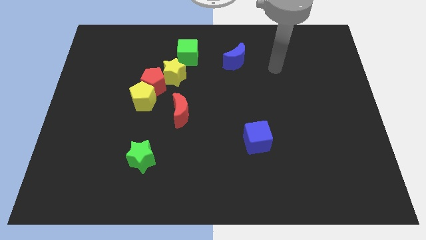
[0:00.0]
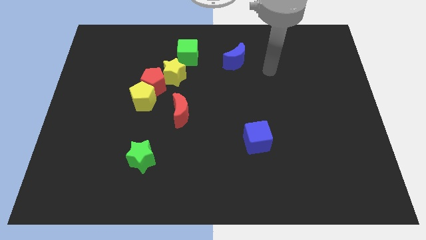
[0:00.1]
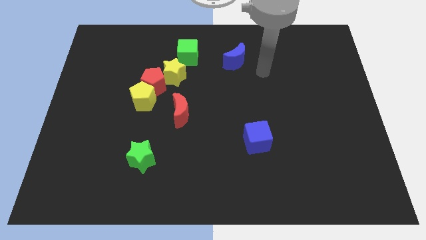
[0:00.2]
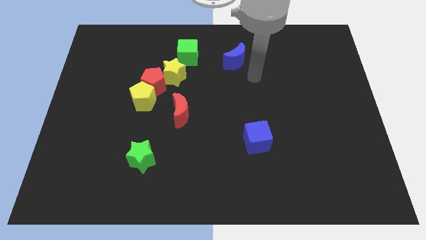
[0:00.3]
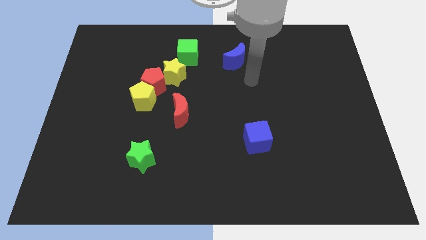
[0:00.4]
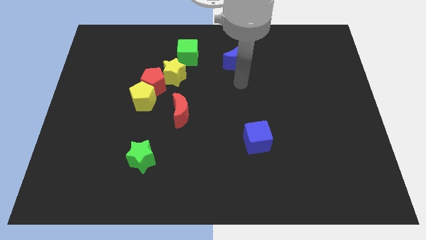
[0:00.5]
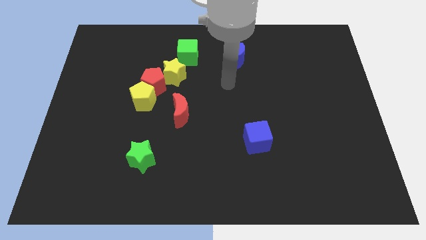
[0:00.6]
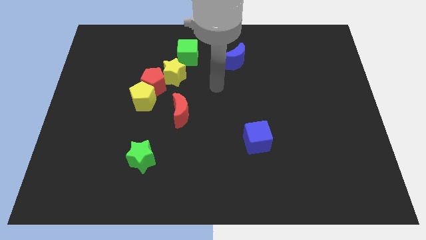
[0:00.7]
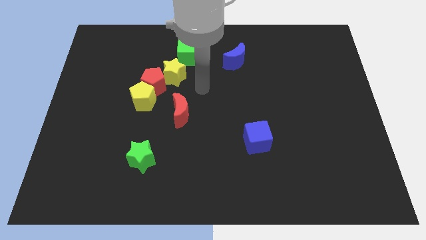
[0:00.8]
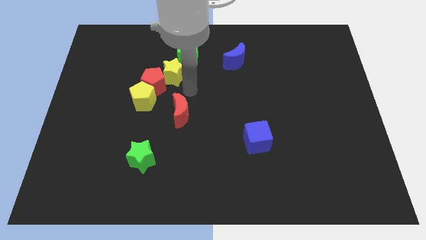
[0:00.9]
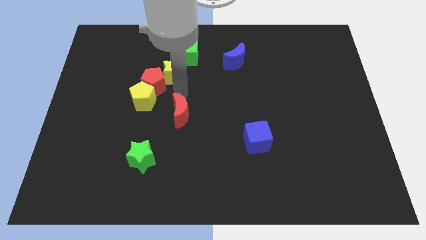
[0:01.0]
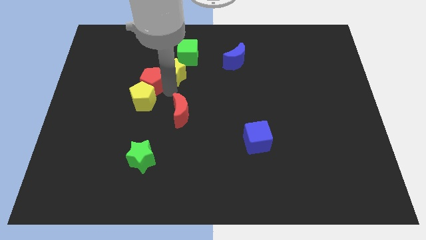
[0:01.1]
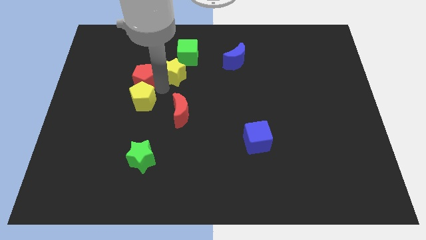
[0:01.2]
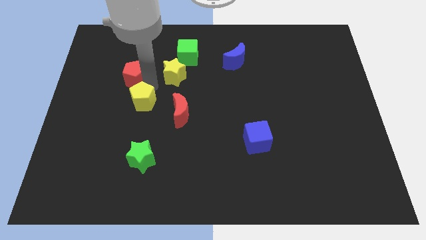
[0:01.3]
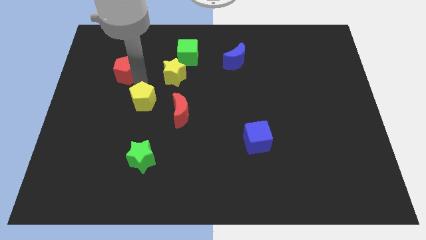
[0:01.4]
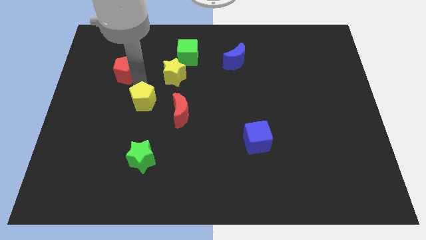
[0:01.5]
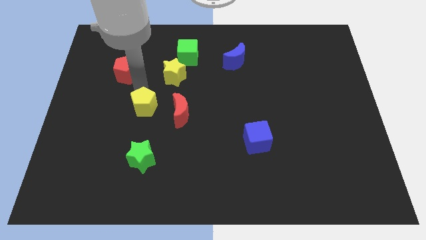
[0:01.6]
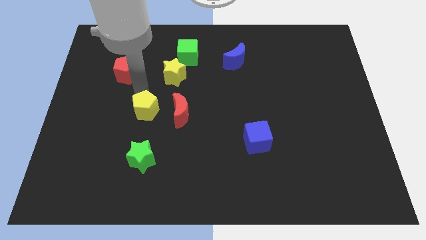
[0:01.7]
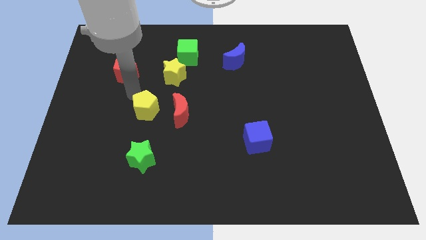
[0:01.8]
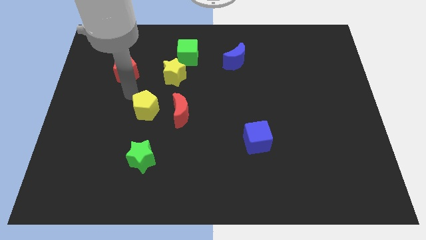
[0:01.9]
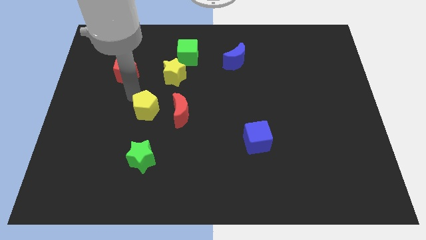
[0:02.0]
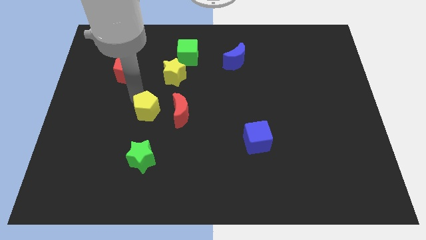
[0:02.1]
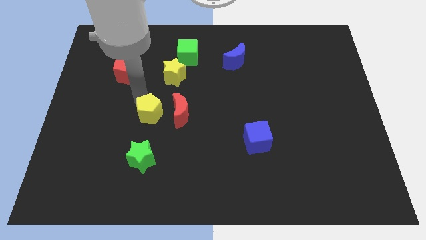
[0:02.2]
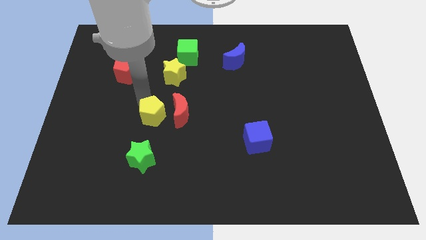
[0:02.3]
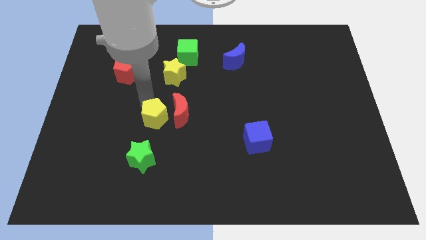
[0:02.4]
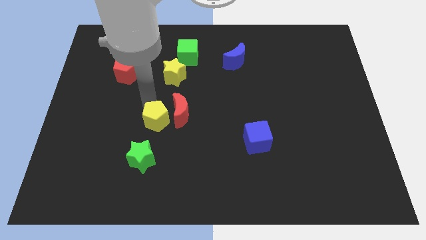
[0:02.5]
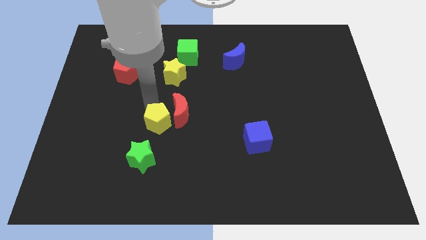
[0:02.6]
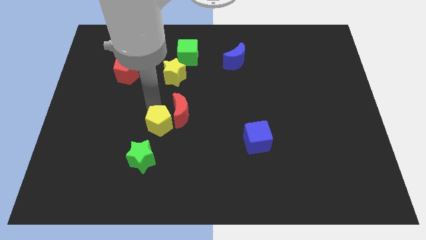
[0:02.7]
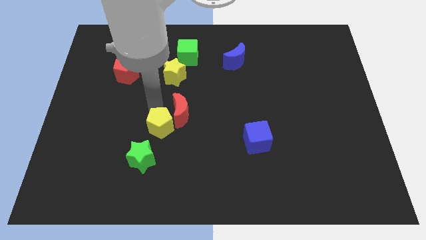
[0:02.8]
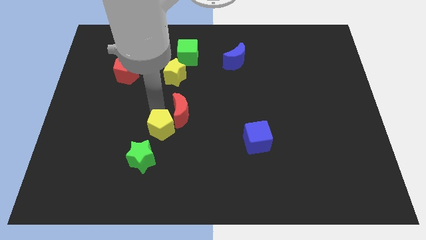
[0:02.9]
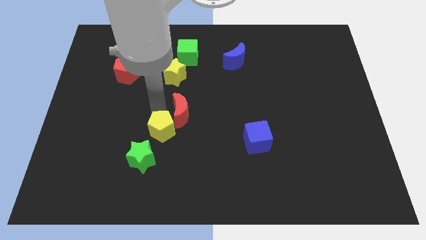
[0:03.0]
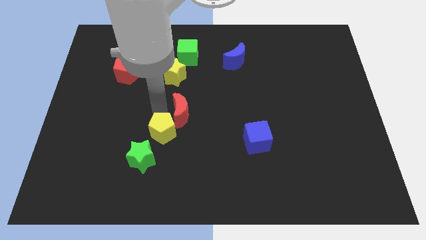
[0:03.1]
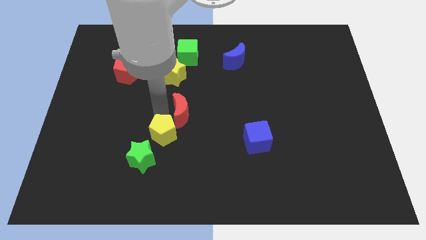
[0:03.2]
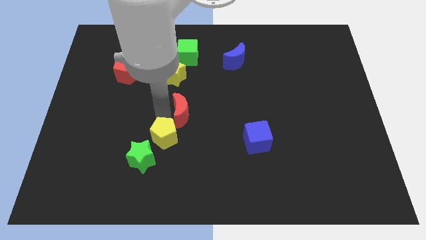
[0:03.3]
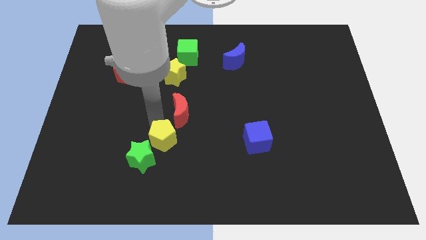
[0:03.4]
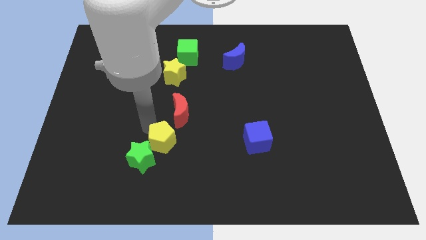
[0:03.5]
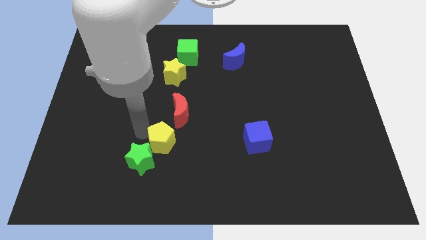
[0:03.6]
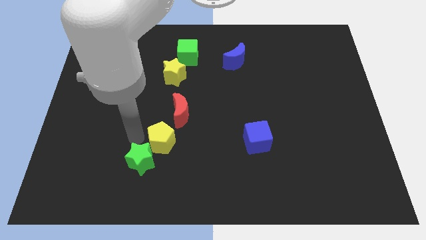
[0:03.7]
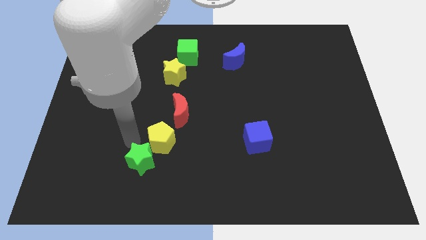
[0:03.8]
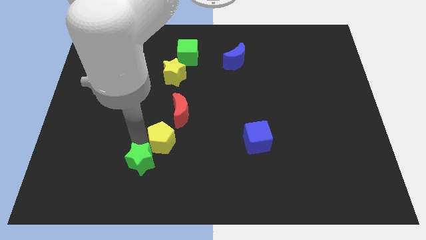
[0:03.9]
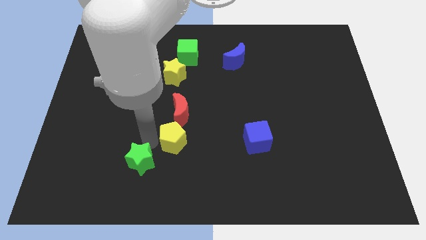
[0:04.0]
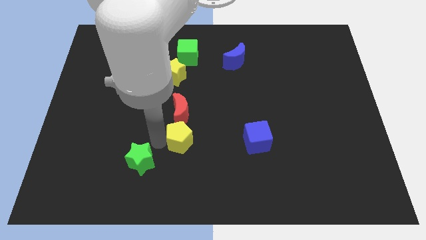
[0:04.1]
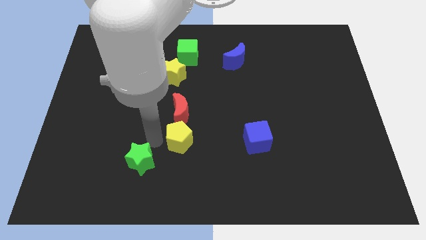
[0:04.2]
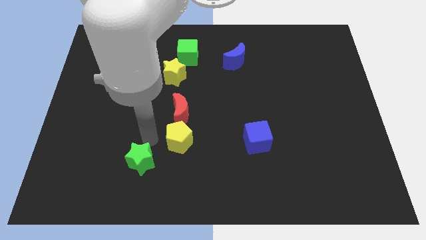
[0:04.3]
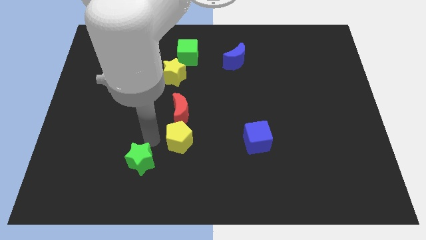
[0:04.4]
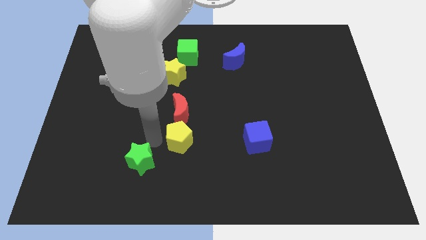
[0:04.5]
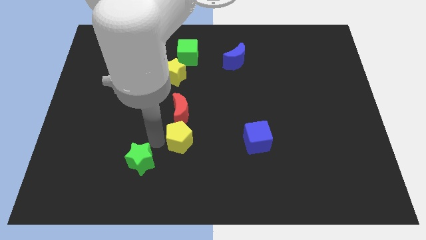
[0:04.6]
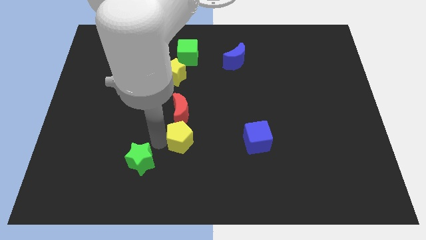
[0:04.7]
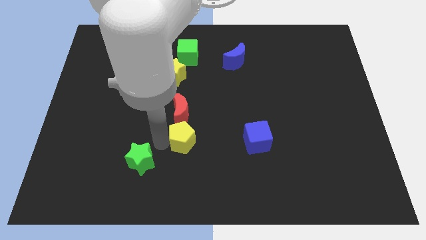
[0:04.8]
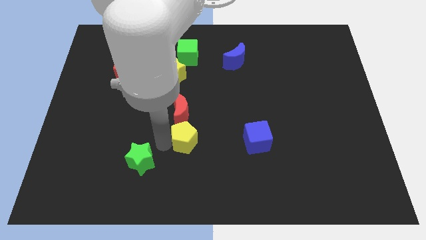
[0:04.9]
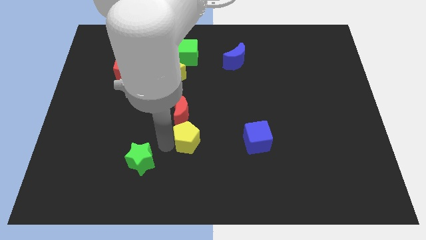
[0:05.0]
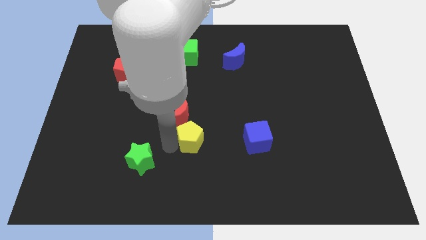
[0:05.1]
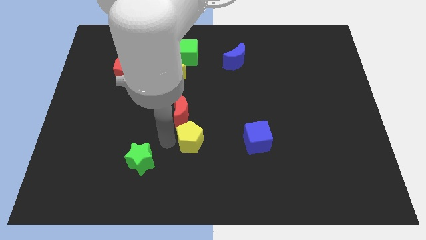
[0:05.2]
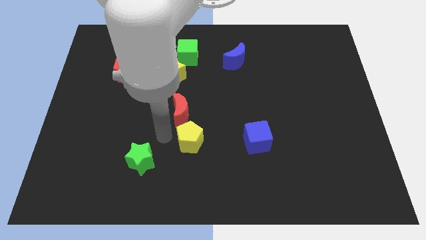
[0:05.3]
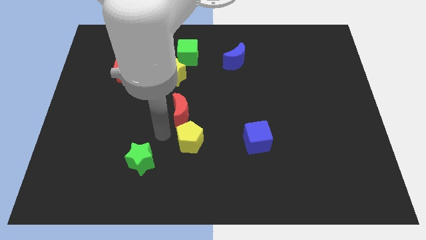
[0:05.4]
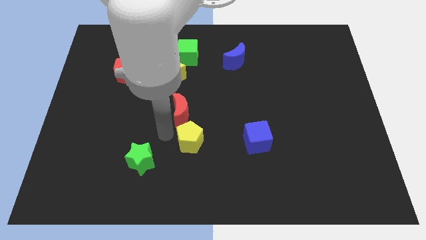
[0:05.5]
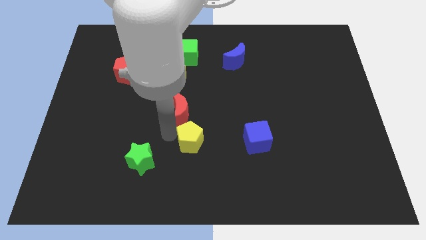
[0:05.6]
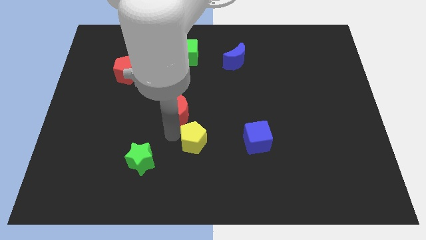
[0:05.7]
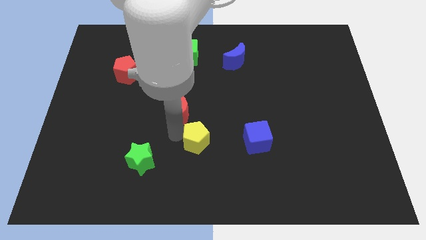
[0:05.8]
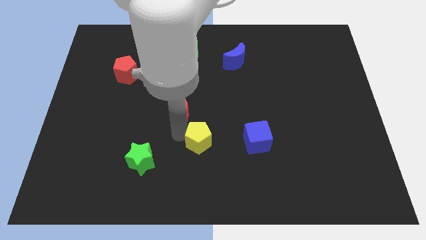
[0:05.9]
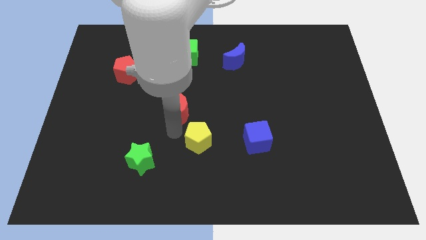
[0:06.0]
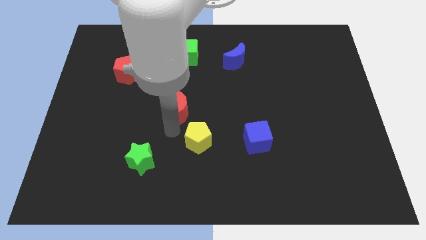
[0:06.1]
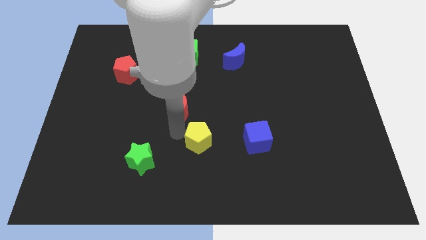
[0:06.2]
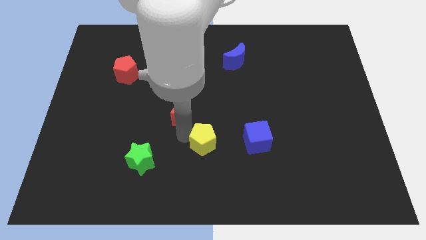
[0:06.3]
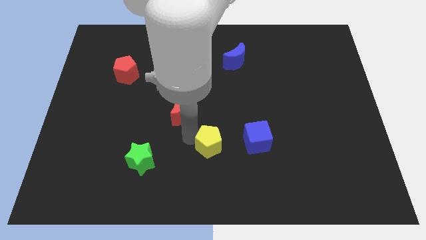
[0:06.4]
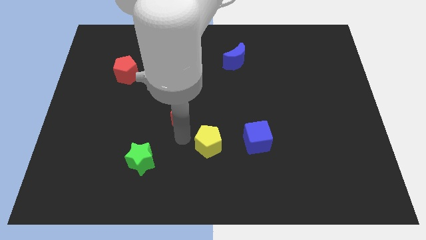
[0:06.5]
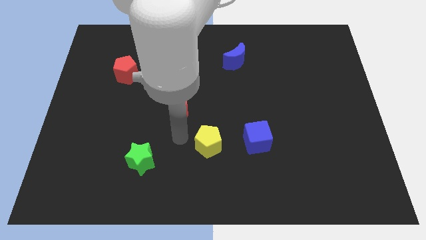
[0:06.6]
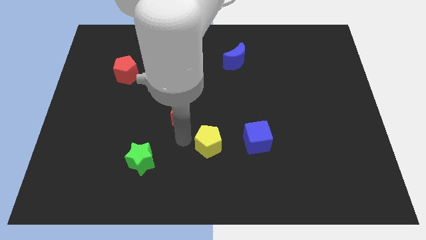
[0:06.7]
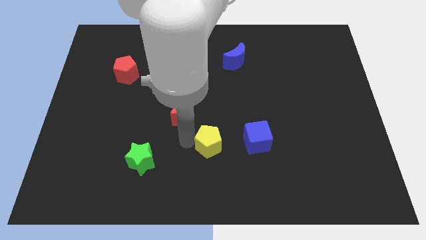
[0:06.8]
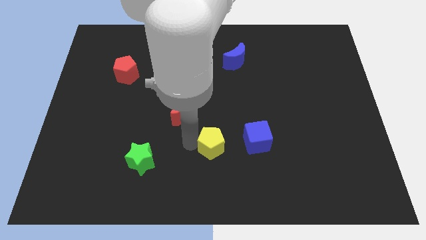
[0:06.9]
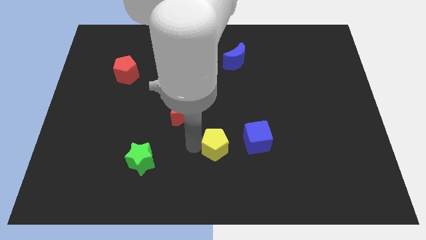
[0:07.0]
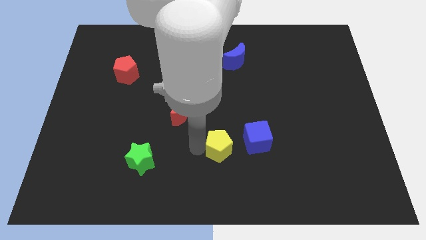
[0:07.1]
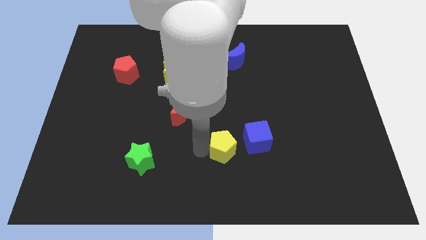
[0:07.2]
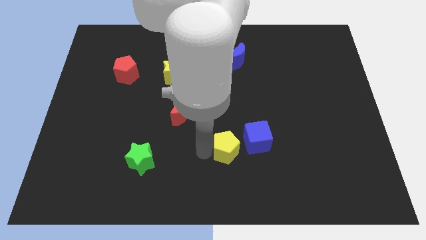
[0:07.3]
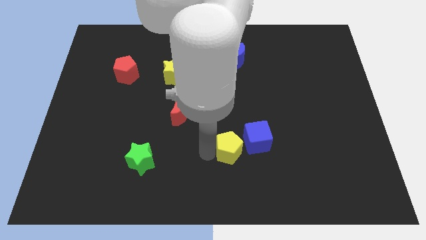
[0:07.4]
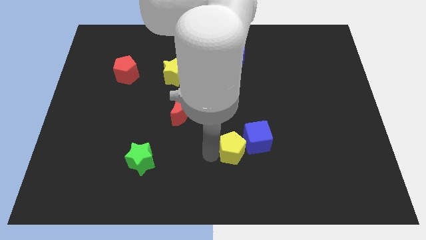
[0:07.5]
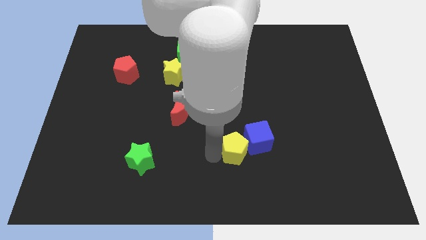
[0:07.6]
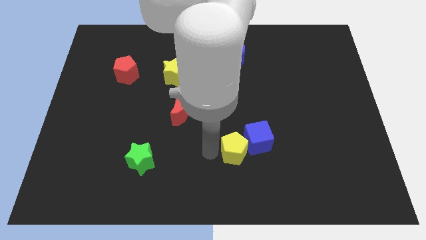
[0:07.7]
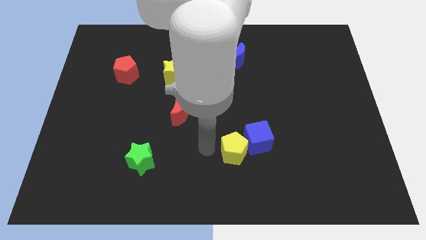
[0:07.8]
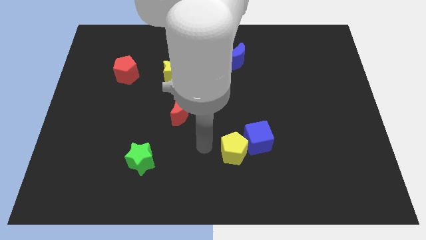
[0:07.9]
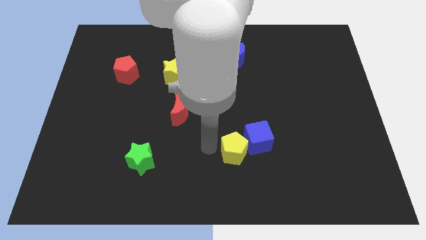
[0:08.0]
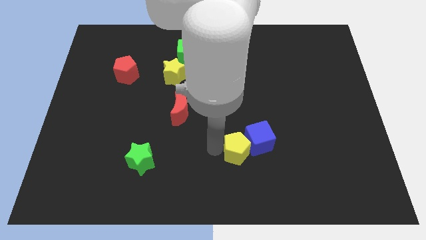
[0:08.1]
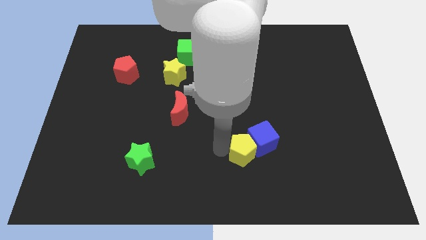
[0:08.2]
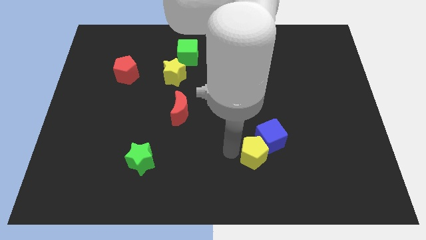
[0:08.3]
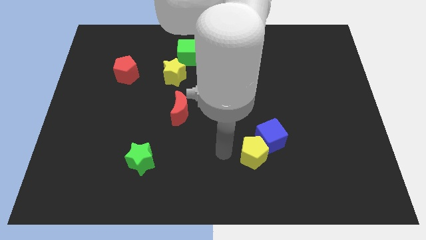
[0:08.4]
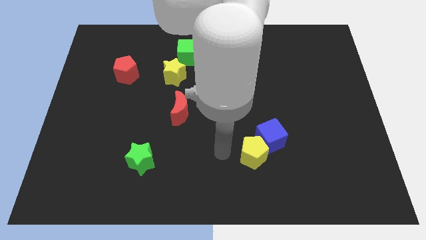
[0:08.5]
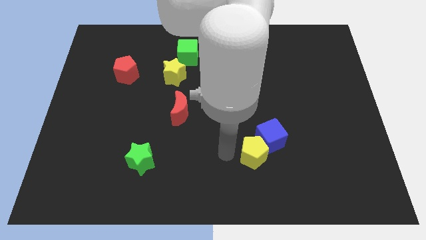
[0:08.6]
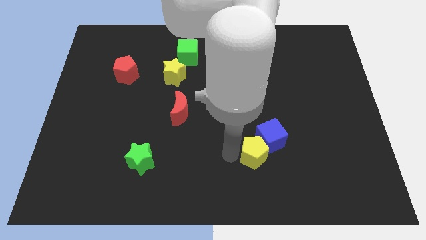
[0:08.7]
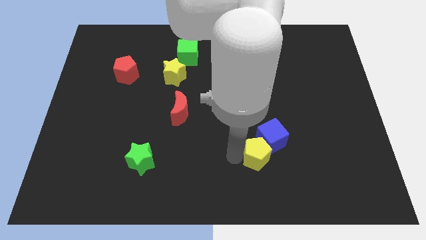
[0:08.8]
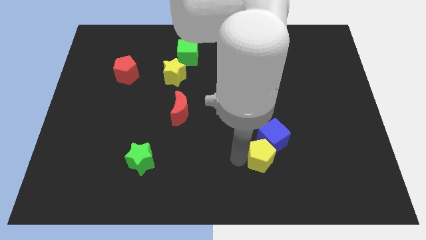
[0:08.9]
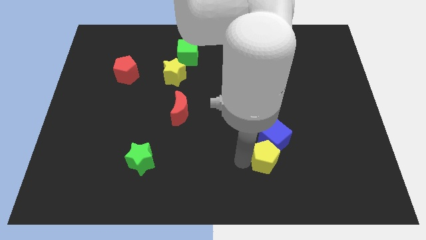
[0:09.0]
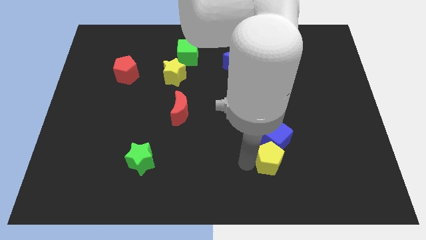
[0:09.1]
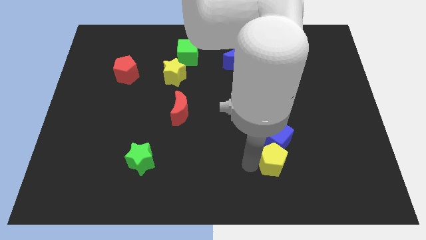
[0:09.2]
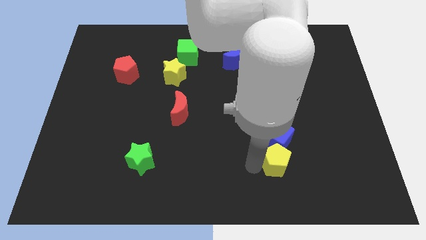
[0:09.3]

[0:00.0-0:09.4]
slide the yellow pentagon to the bottom right side of the blue cube
